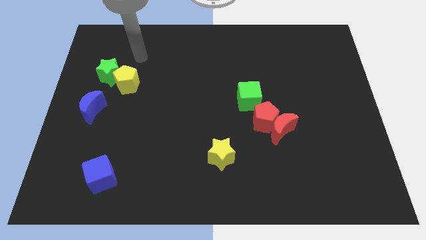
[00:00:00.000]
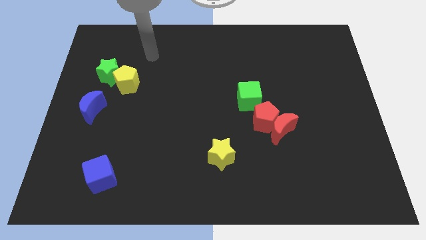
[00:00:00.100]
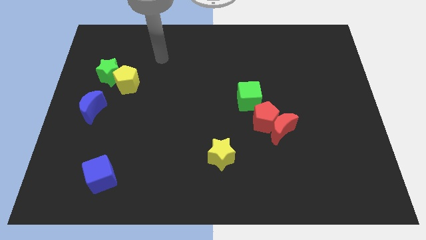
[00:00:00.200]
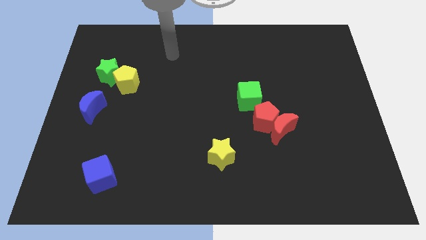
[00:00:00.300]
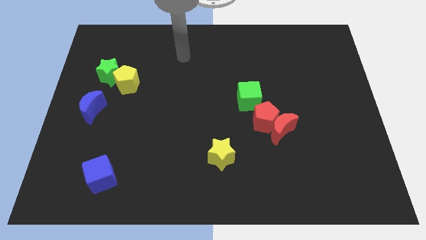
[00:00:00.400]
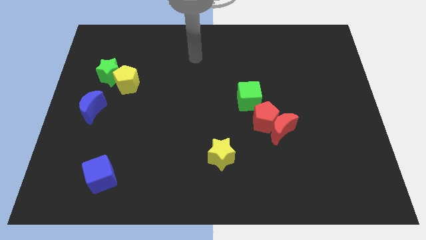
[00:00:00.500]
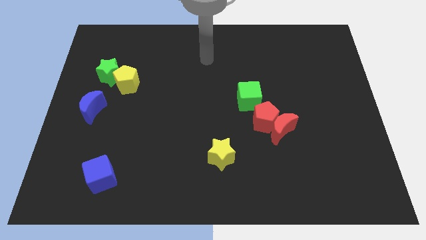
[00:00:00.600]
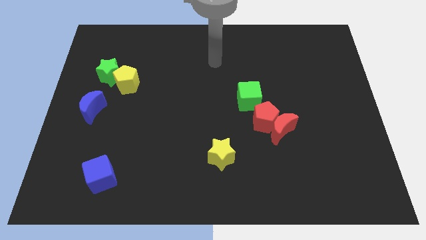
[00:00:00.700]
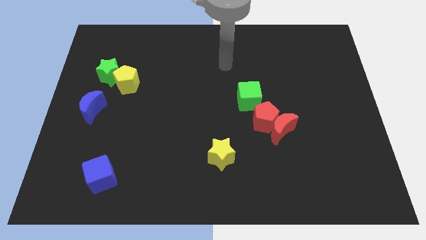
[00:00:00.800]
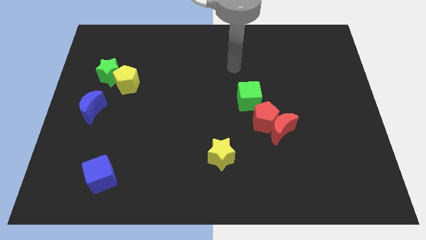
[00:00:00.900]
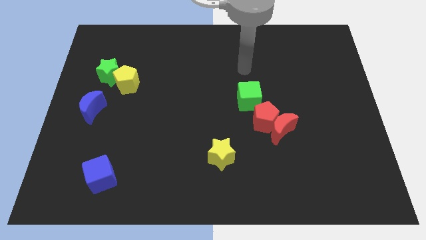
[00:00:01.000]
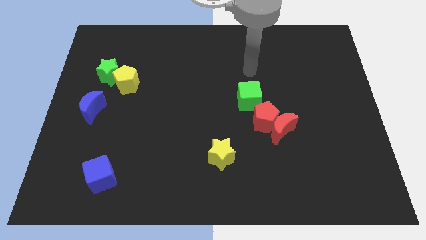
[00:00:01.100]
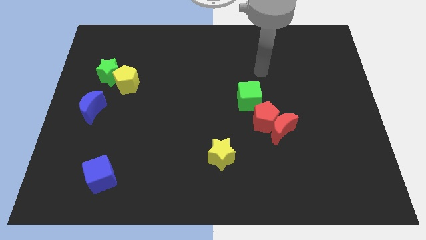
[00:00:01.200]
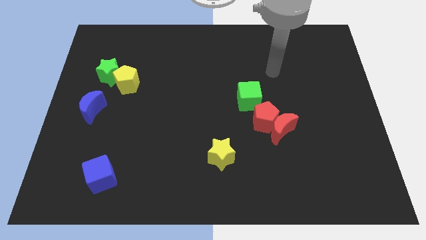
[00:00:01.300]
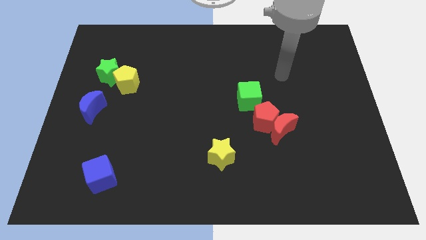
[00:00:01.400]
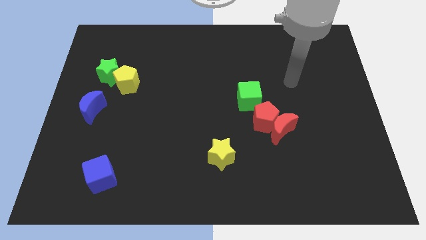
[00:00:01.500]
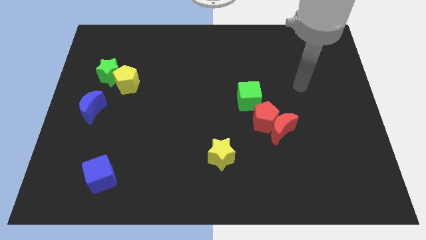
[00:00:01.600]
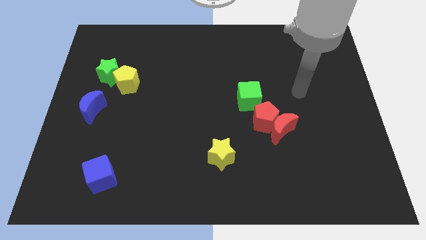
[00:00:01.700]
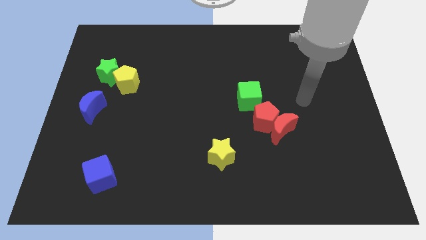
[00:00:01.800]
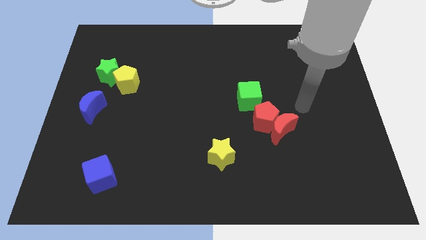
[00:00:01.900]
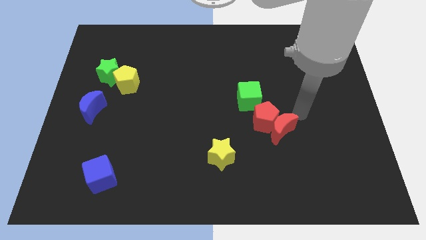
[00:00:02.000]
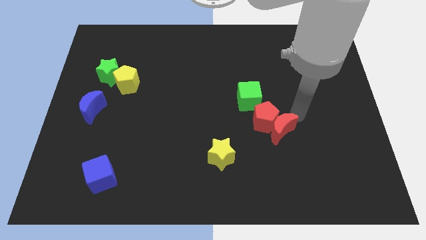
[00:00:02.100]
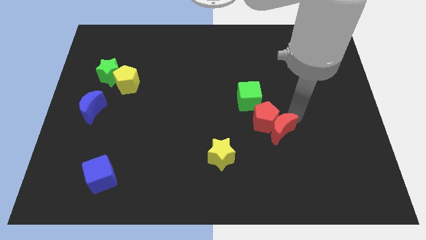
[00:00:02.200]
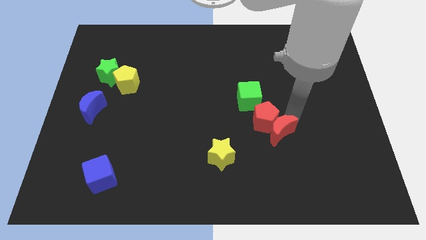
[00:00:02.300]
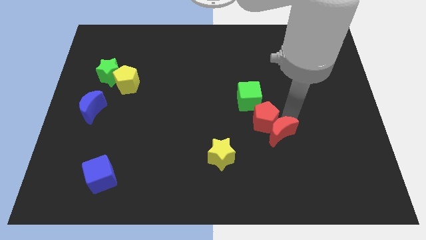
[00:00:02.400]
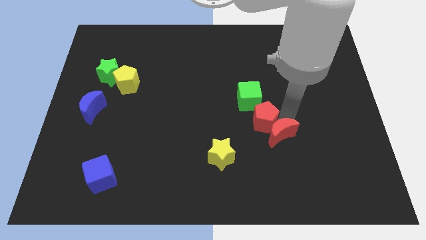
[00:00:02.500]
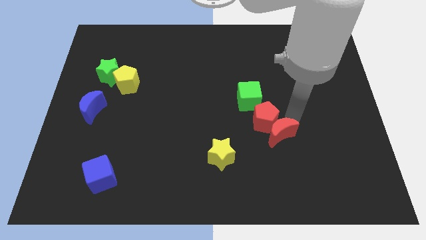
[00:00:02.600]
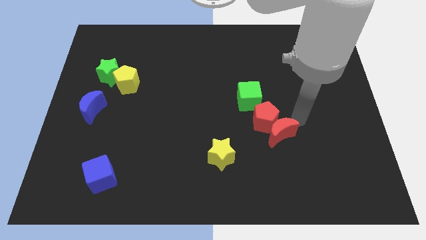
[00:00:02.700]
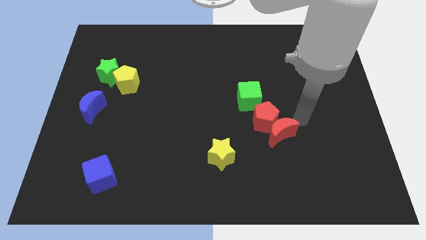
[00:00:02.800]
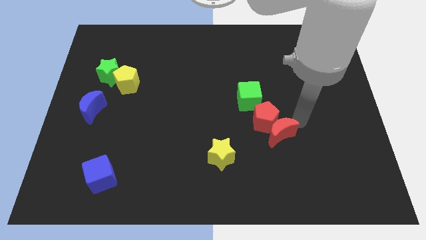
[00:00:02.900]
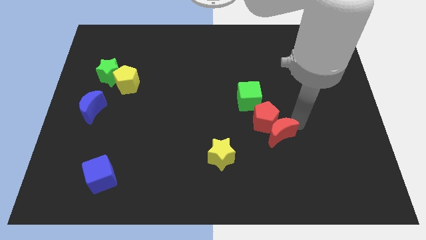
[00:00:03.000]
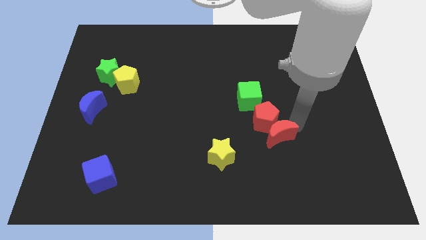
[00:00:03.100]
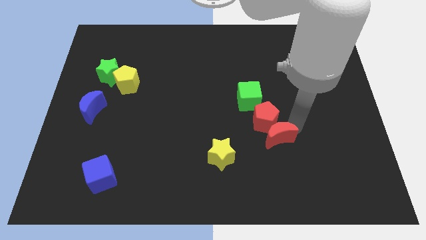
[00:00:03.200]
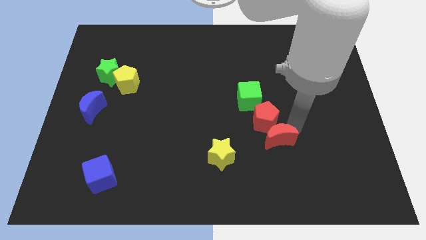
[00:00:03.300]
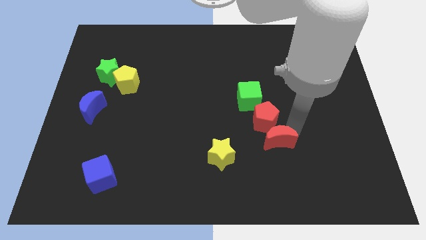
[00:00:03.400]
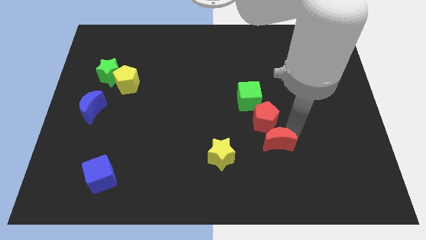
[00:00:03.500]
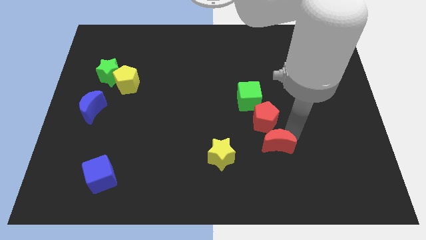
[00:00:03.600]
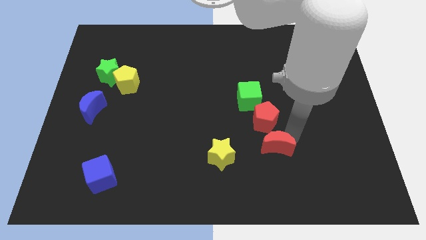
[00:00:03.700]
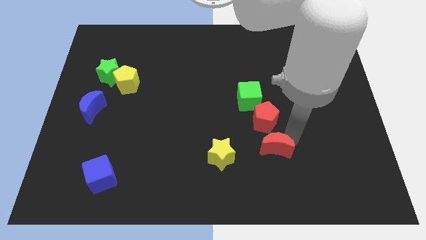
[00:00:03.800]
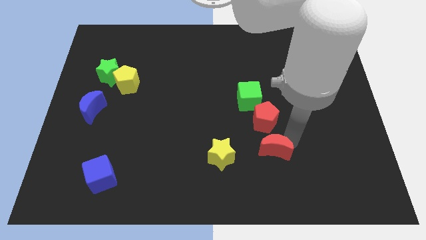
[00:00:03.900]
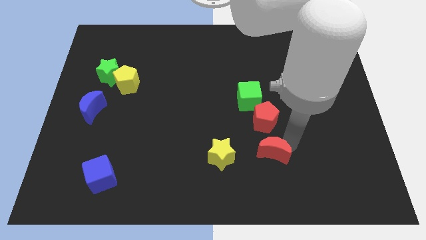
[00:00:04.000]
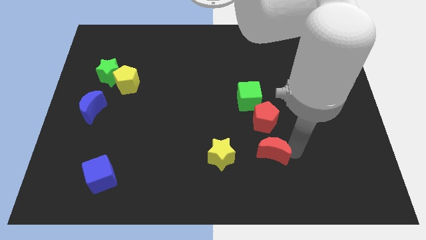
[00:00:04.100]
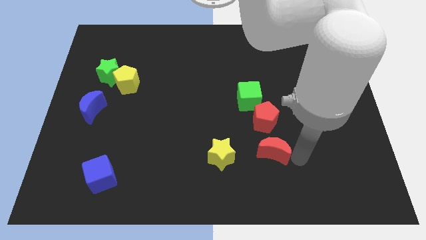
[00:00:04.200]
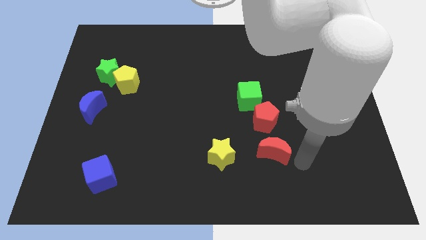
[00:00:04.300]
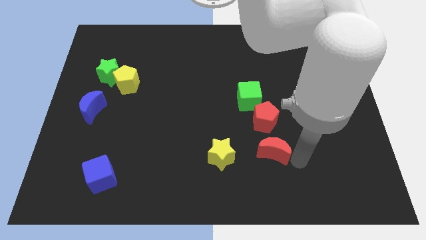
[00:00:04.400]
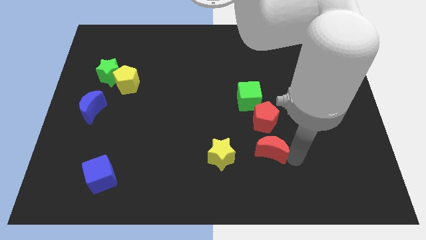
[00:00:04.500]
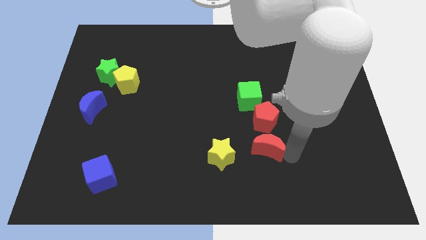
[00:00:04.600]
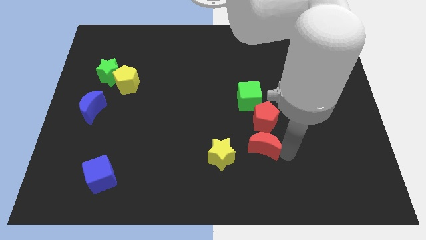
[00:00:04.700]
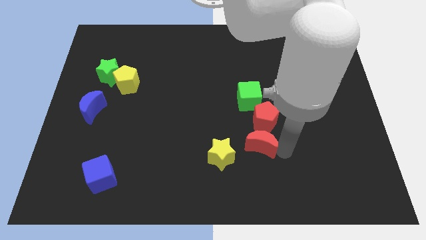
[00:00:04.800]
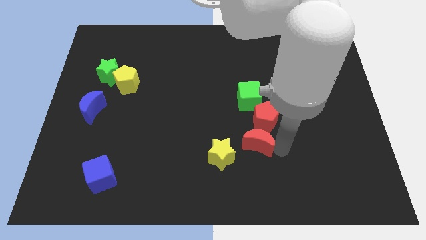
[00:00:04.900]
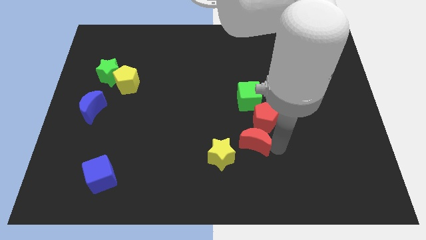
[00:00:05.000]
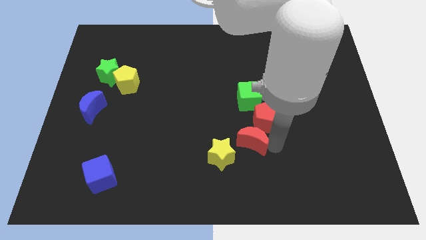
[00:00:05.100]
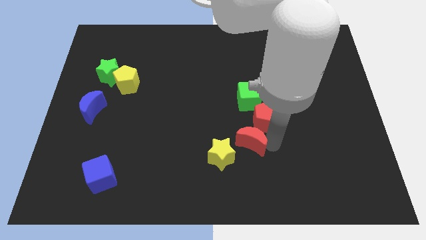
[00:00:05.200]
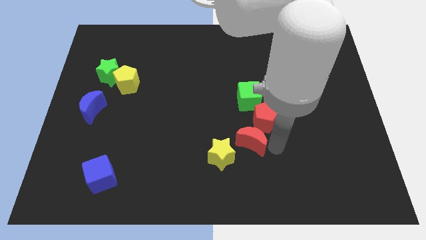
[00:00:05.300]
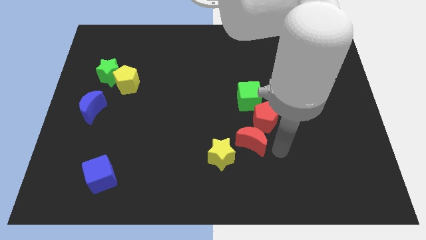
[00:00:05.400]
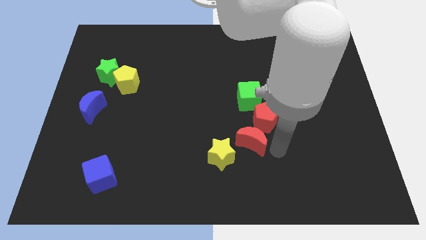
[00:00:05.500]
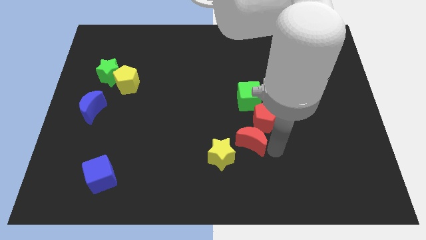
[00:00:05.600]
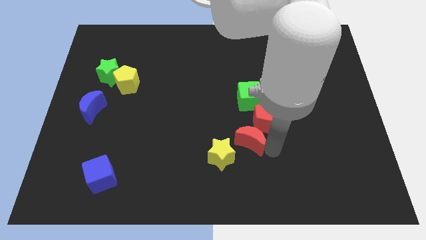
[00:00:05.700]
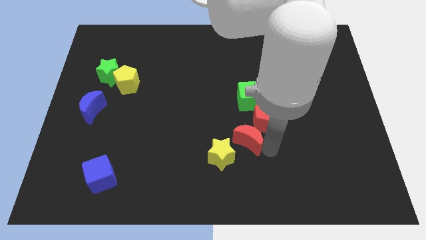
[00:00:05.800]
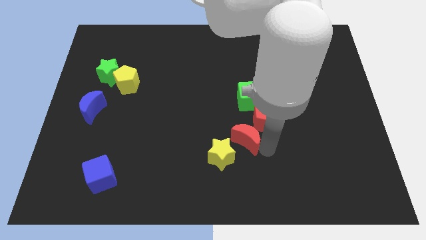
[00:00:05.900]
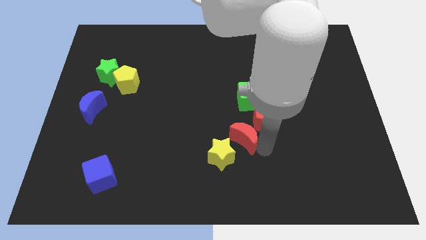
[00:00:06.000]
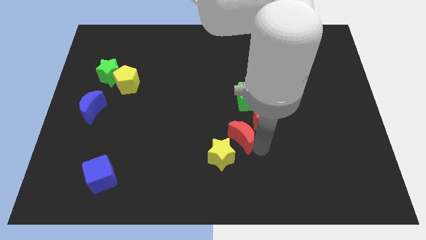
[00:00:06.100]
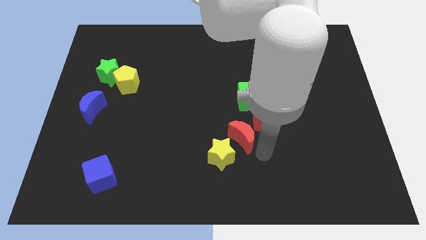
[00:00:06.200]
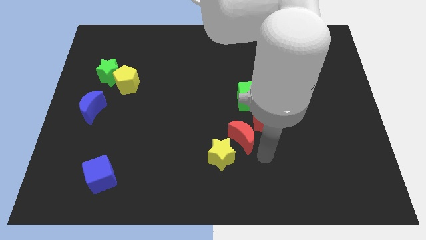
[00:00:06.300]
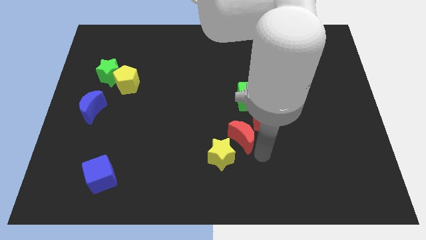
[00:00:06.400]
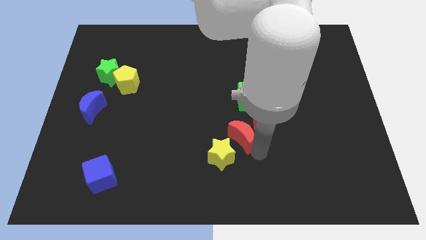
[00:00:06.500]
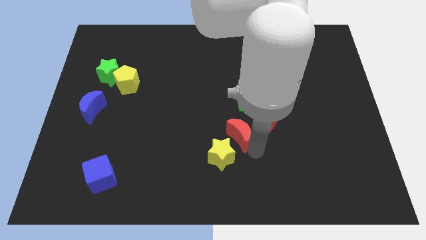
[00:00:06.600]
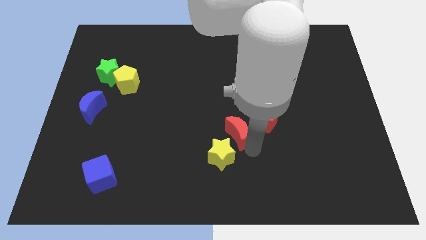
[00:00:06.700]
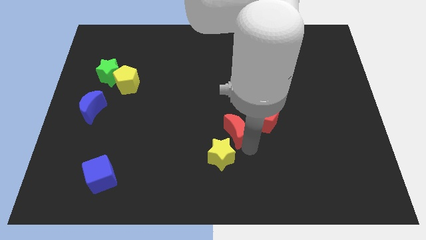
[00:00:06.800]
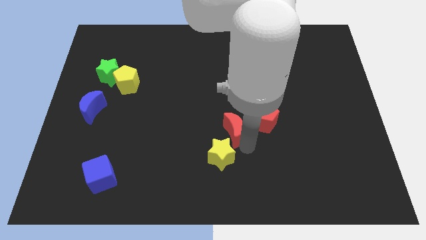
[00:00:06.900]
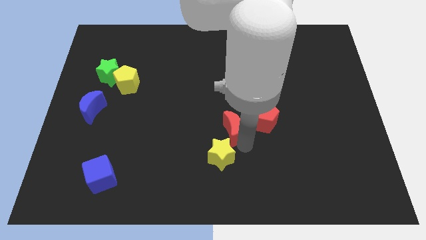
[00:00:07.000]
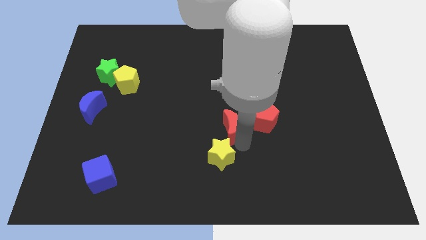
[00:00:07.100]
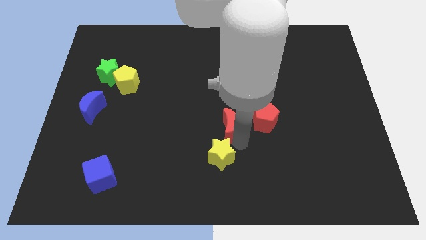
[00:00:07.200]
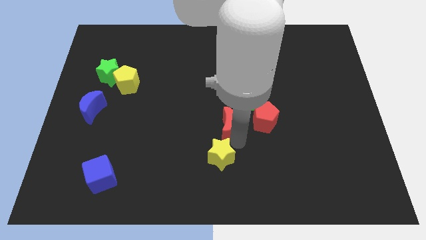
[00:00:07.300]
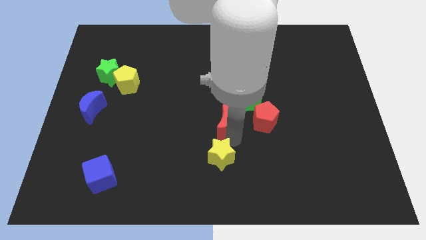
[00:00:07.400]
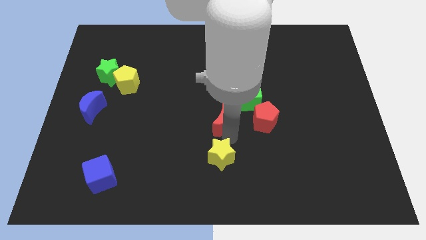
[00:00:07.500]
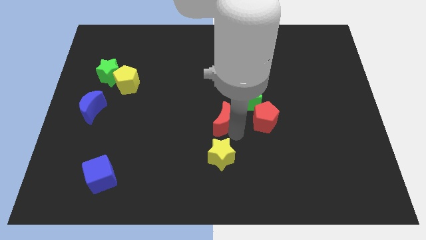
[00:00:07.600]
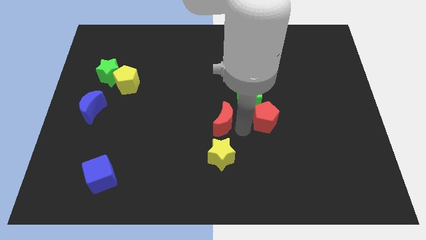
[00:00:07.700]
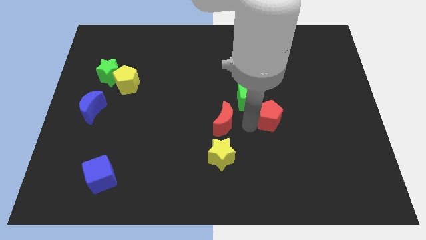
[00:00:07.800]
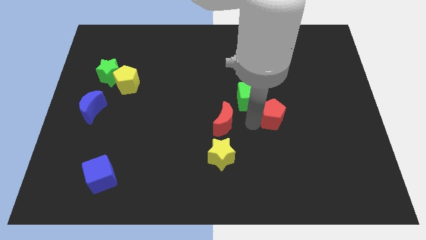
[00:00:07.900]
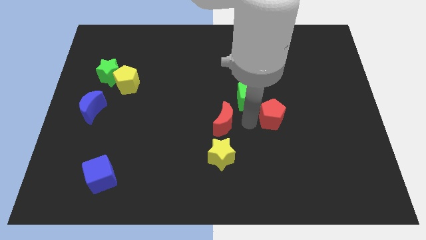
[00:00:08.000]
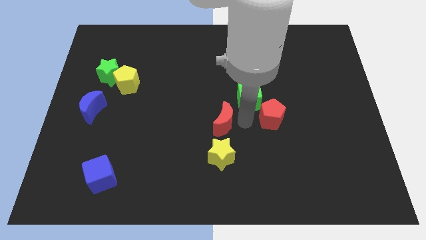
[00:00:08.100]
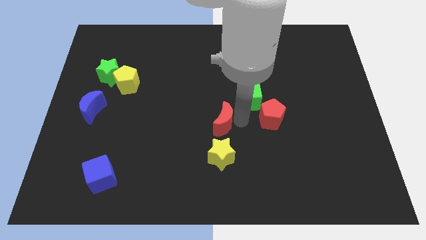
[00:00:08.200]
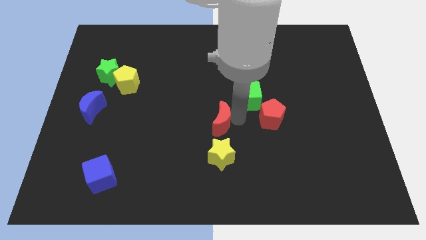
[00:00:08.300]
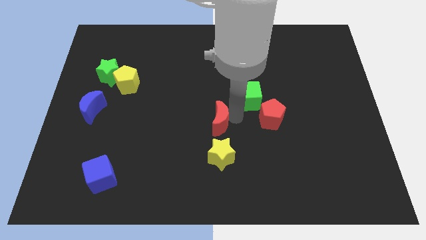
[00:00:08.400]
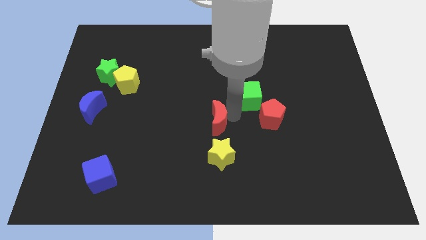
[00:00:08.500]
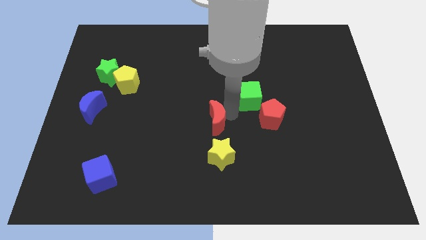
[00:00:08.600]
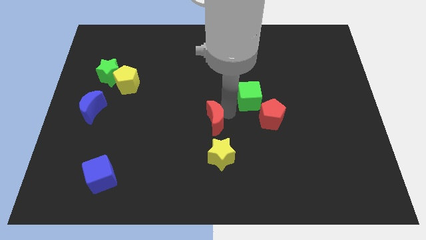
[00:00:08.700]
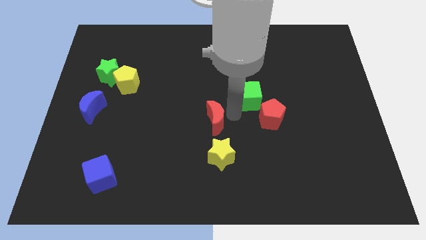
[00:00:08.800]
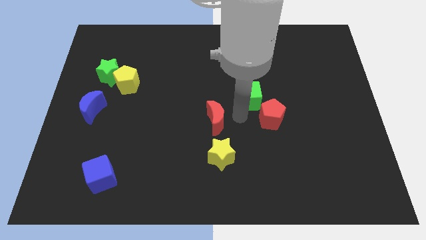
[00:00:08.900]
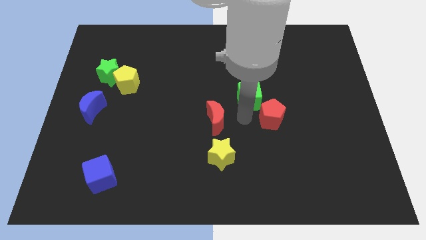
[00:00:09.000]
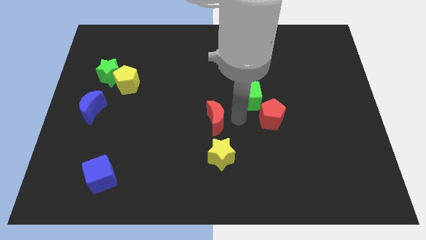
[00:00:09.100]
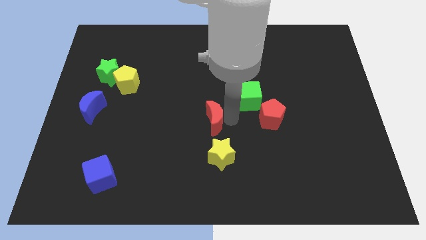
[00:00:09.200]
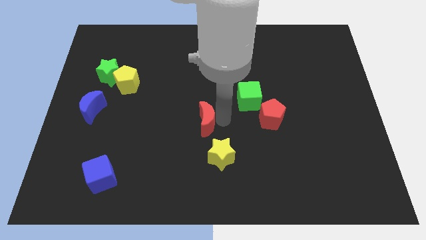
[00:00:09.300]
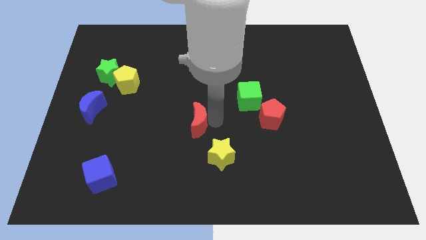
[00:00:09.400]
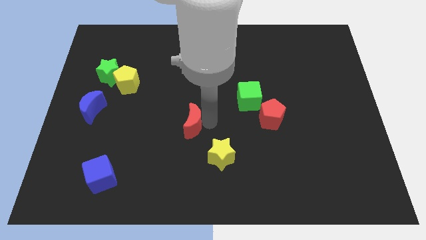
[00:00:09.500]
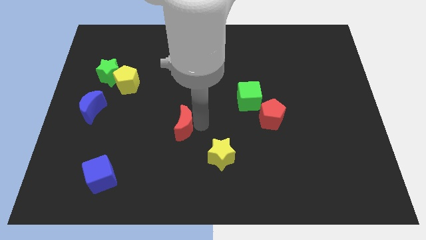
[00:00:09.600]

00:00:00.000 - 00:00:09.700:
push the red moon to the left
